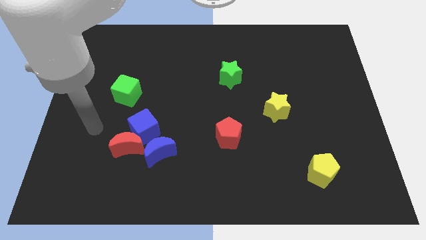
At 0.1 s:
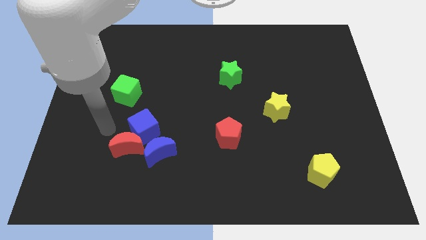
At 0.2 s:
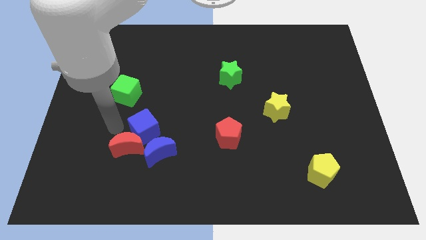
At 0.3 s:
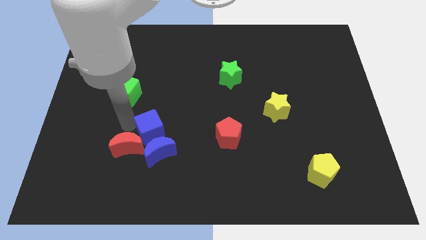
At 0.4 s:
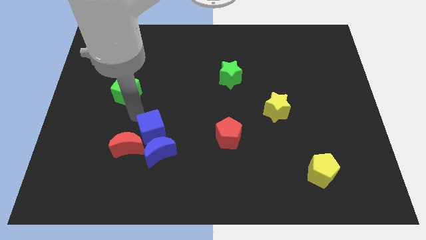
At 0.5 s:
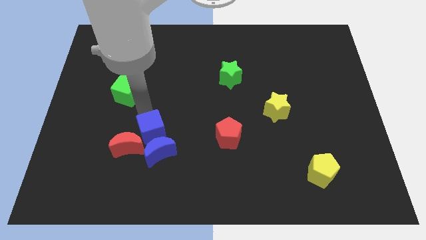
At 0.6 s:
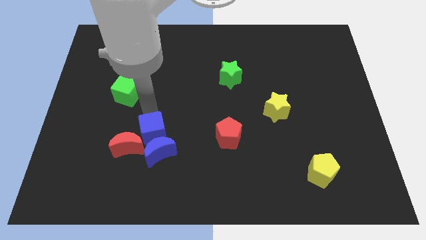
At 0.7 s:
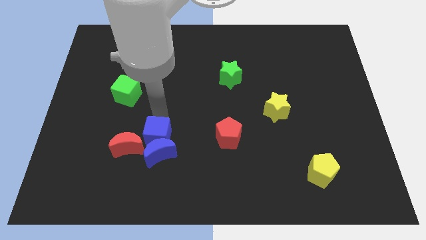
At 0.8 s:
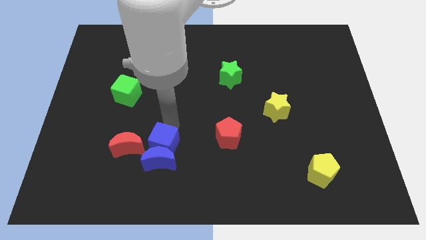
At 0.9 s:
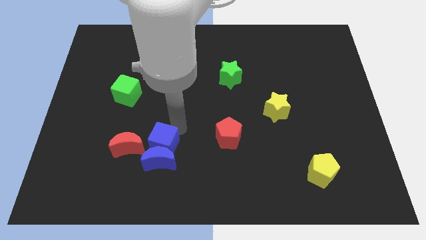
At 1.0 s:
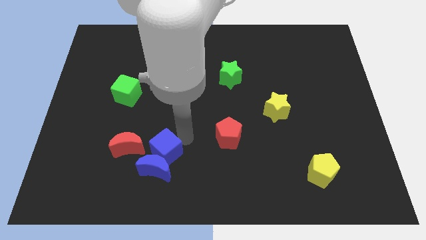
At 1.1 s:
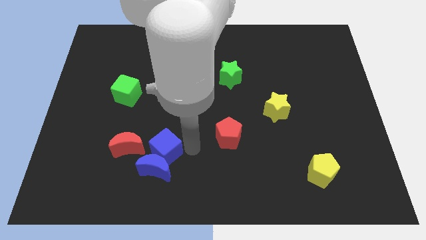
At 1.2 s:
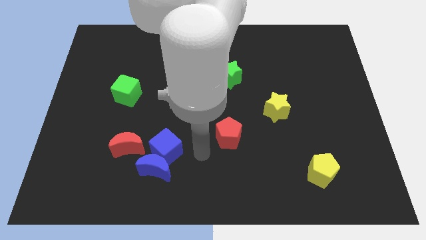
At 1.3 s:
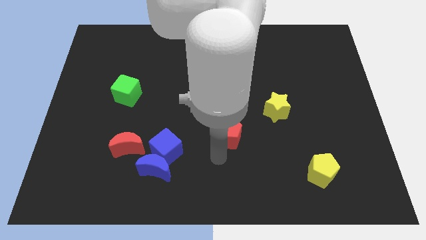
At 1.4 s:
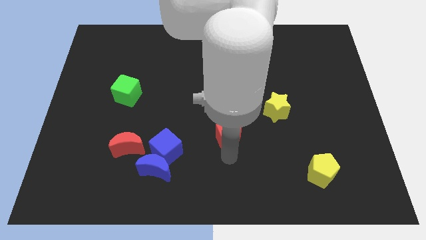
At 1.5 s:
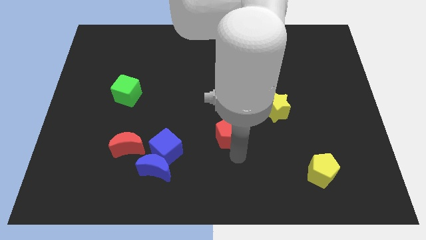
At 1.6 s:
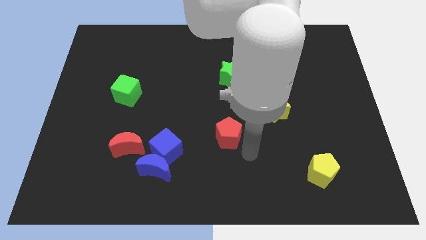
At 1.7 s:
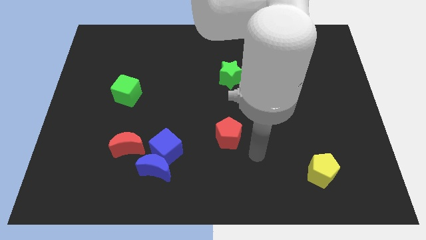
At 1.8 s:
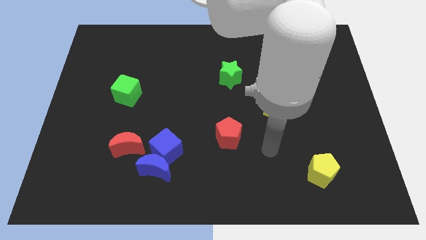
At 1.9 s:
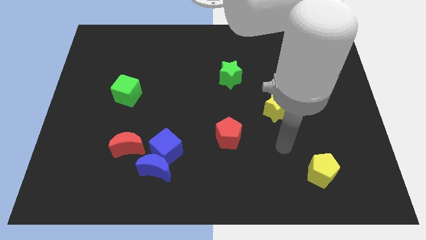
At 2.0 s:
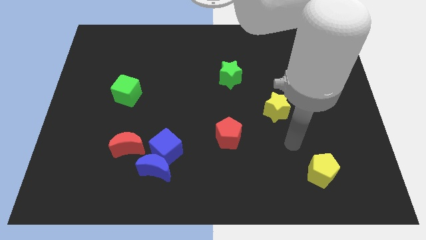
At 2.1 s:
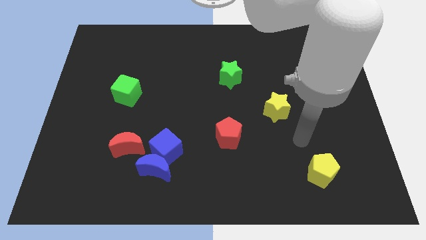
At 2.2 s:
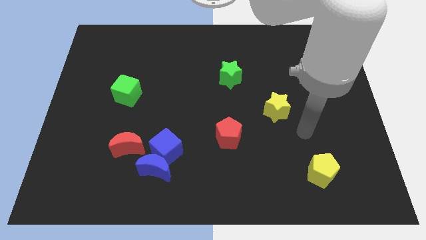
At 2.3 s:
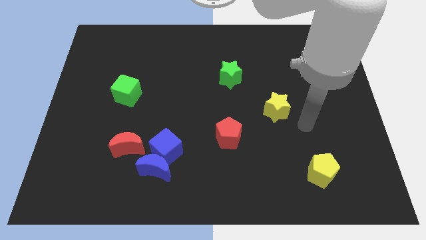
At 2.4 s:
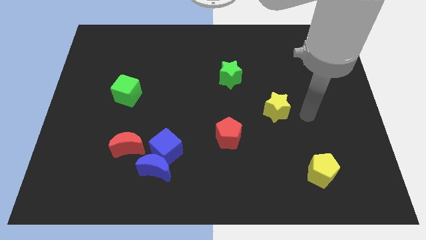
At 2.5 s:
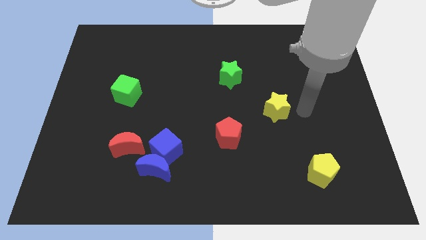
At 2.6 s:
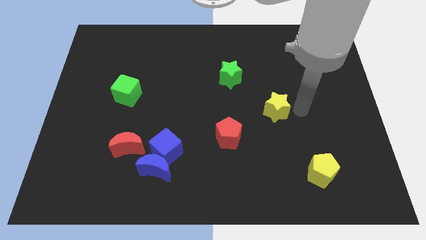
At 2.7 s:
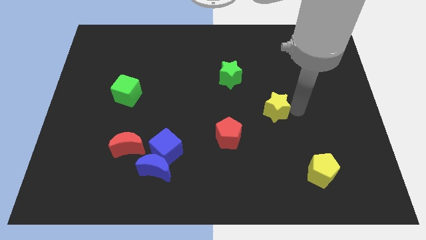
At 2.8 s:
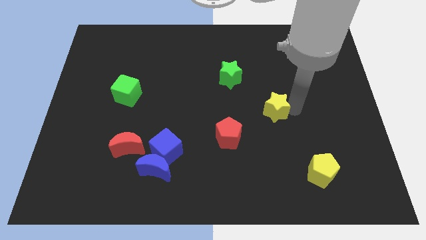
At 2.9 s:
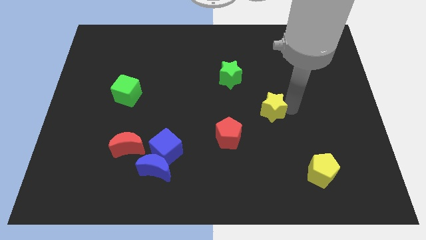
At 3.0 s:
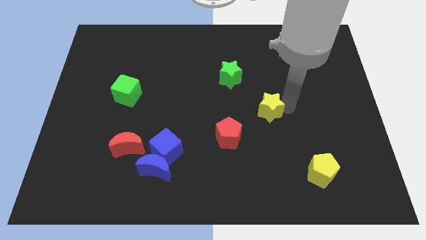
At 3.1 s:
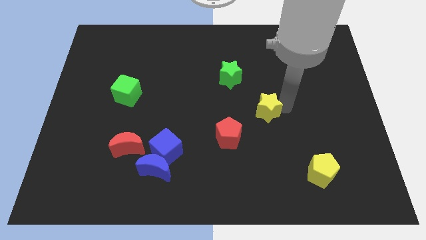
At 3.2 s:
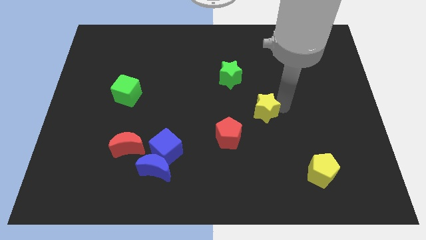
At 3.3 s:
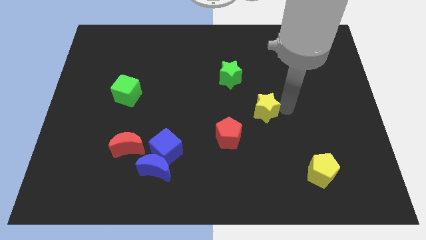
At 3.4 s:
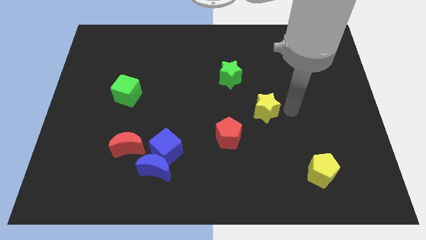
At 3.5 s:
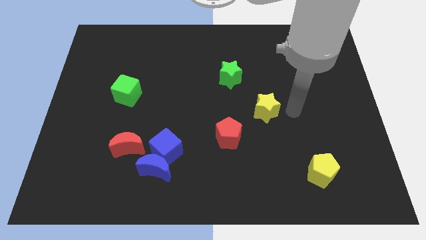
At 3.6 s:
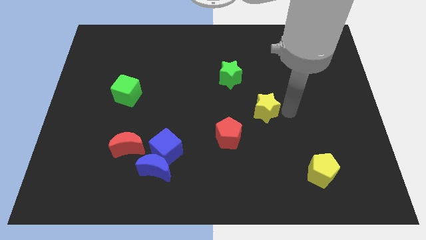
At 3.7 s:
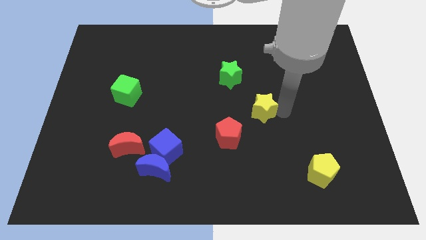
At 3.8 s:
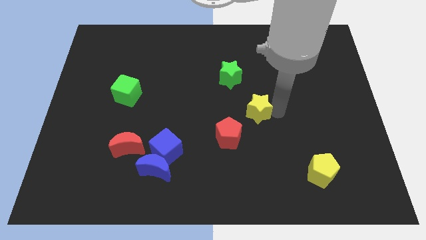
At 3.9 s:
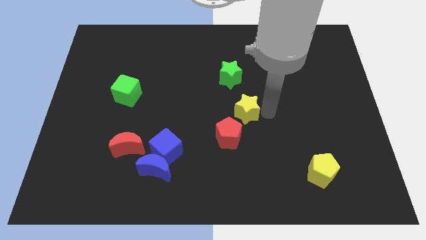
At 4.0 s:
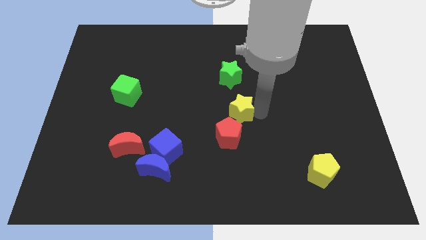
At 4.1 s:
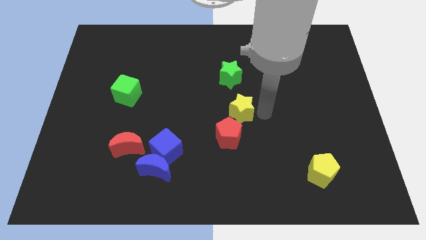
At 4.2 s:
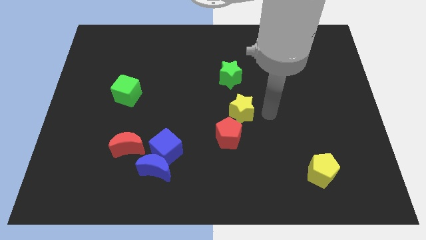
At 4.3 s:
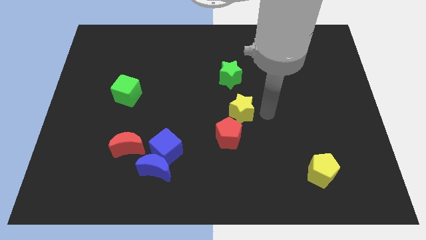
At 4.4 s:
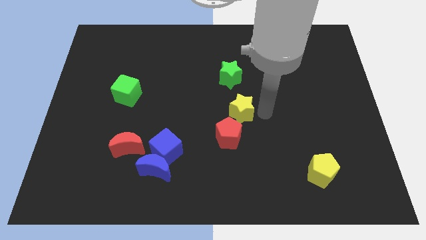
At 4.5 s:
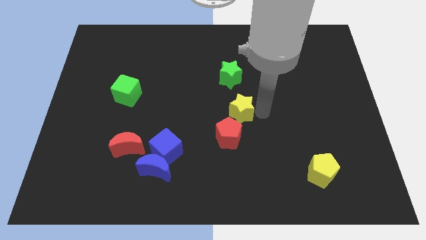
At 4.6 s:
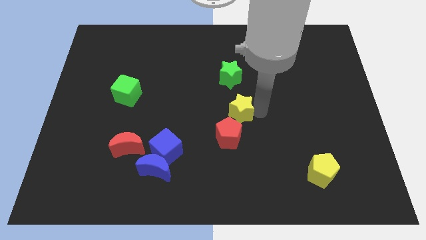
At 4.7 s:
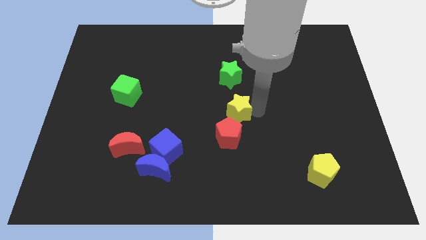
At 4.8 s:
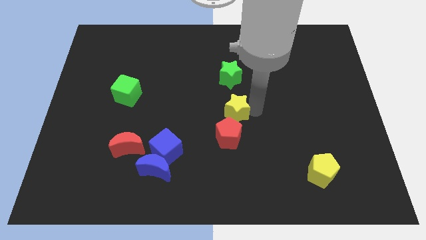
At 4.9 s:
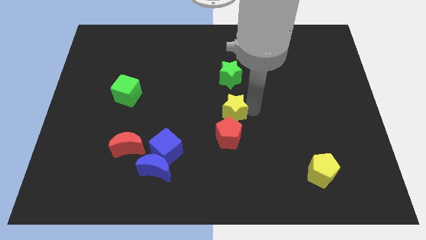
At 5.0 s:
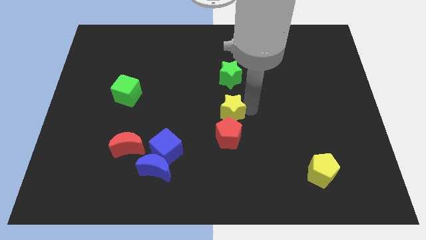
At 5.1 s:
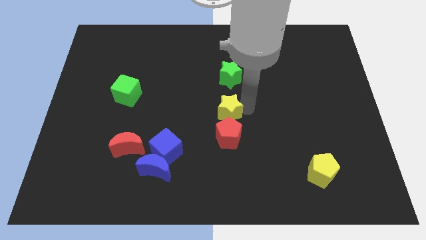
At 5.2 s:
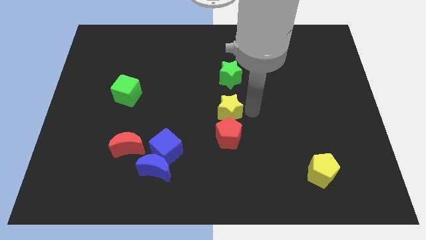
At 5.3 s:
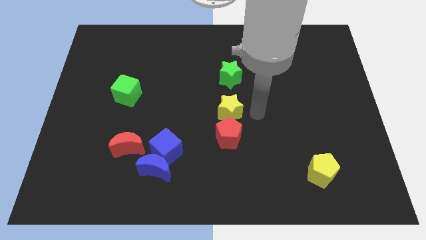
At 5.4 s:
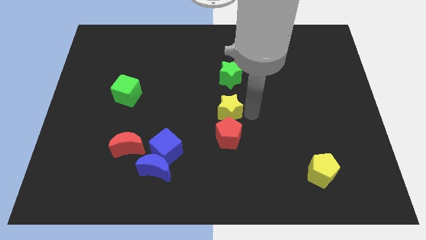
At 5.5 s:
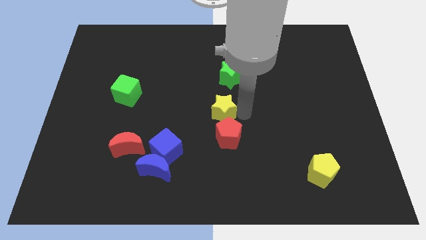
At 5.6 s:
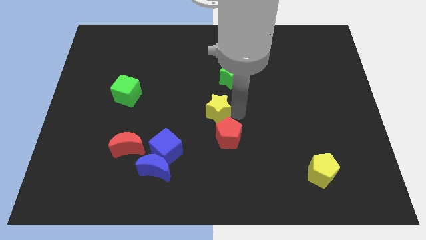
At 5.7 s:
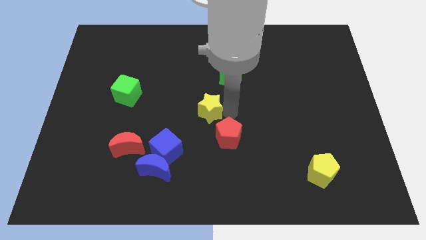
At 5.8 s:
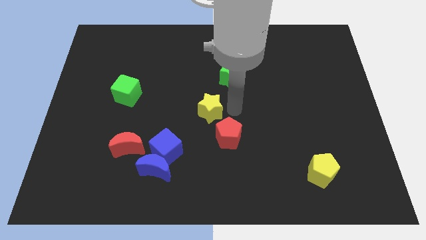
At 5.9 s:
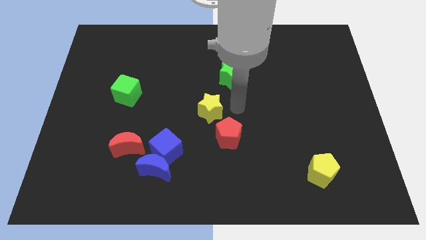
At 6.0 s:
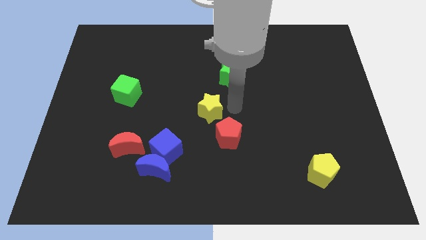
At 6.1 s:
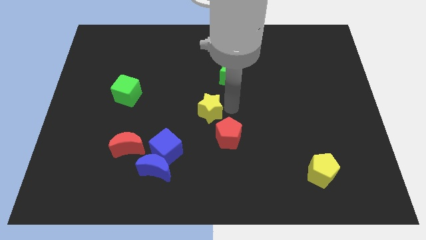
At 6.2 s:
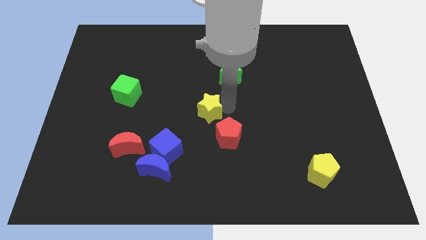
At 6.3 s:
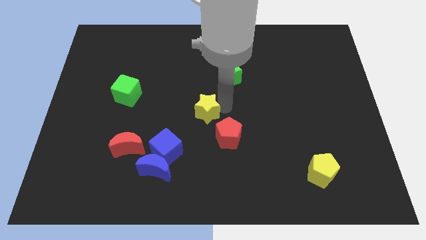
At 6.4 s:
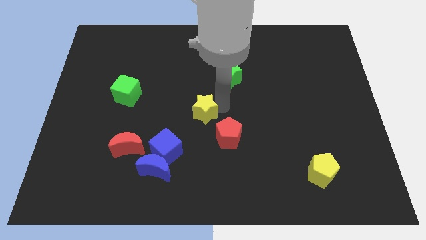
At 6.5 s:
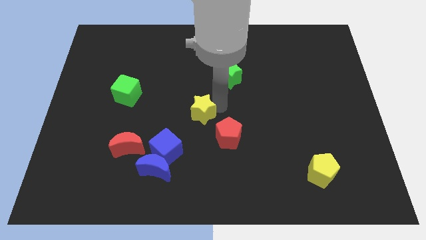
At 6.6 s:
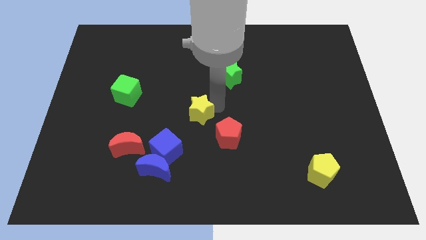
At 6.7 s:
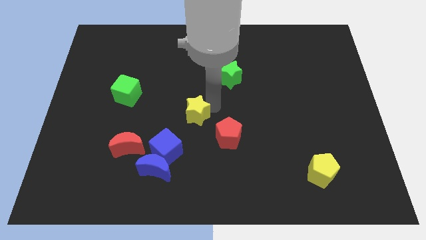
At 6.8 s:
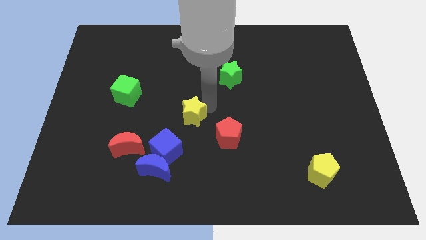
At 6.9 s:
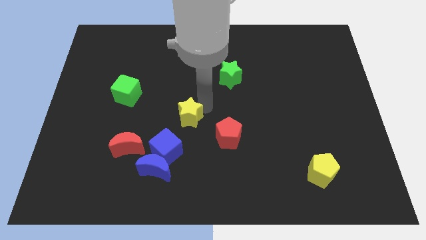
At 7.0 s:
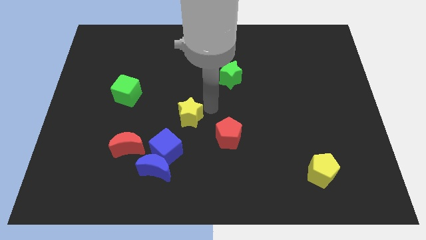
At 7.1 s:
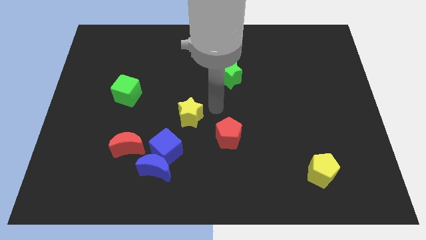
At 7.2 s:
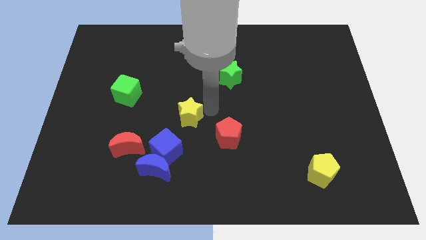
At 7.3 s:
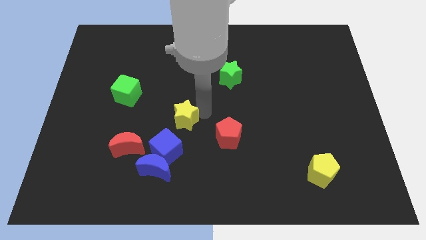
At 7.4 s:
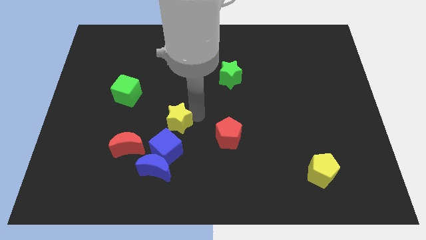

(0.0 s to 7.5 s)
put the yellow star above the blue moon

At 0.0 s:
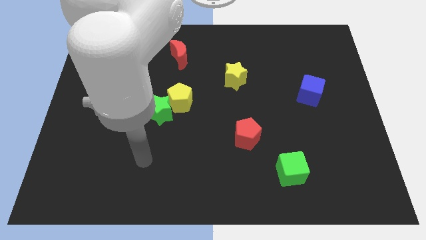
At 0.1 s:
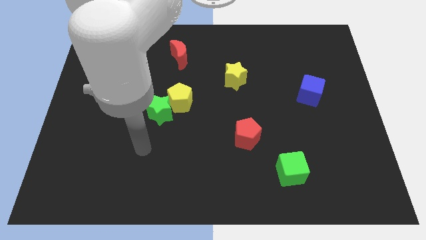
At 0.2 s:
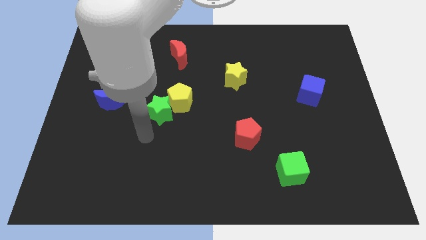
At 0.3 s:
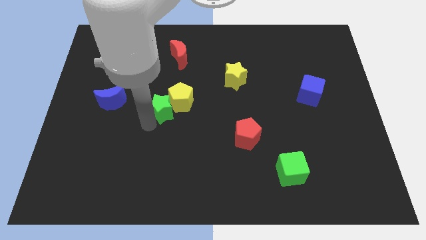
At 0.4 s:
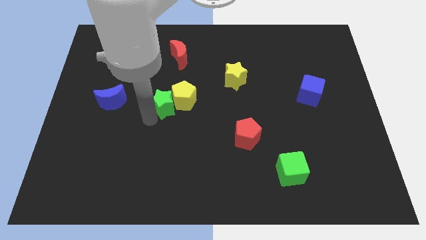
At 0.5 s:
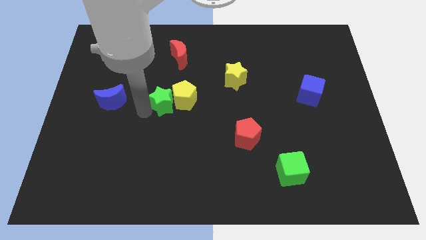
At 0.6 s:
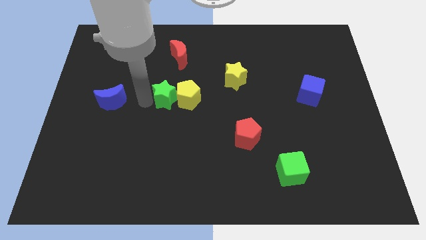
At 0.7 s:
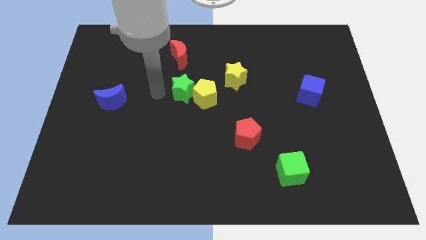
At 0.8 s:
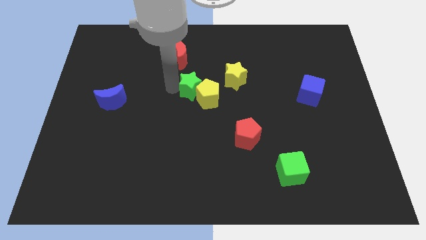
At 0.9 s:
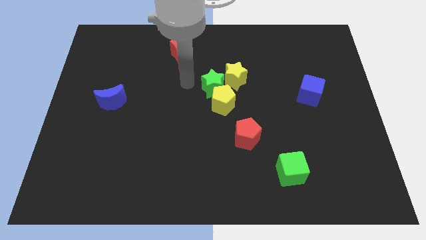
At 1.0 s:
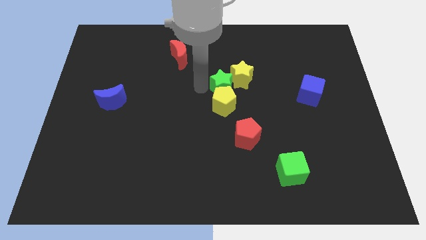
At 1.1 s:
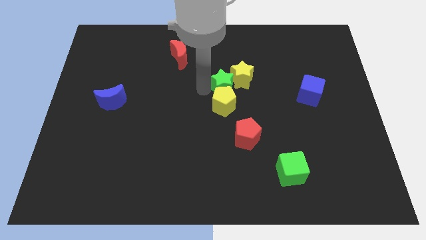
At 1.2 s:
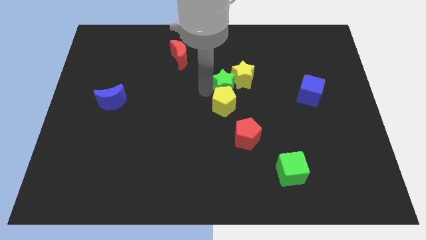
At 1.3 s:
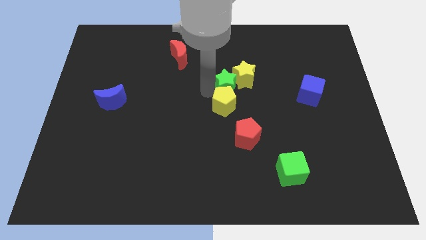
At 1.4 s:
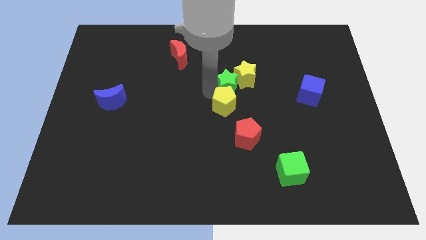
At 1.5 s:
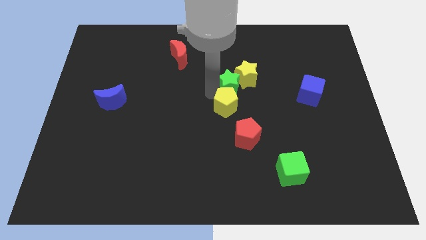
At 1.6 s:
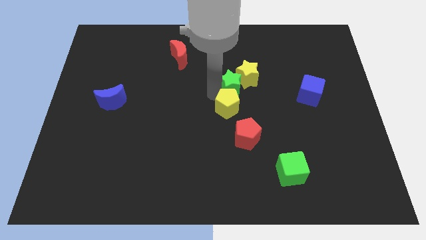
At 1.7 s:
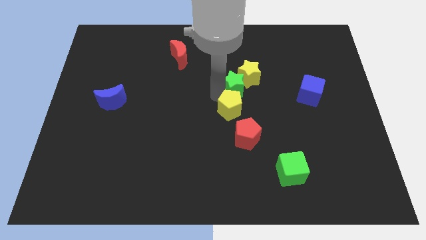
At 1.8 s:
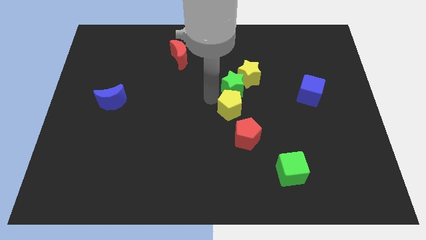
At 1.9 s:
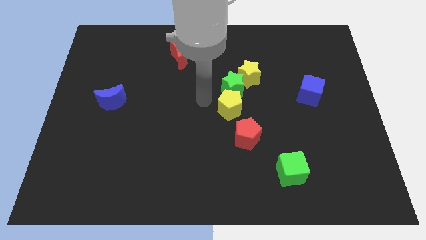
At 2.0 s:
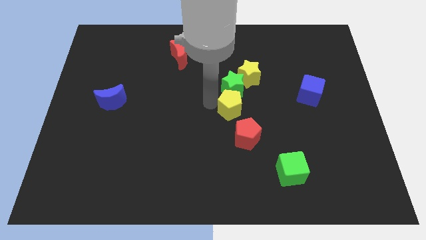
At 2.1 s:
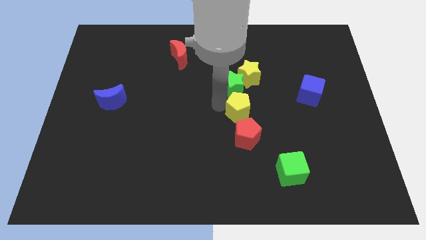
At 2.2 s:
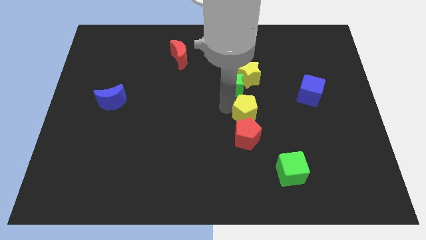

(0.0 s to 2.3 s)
move the yellow pentagon diagonally up and to the right of the red pentagon
